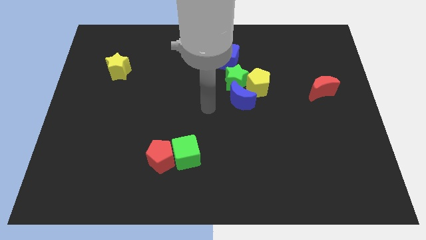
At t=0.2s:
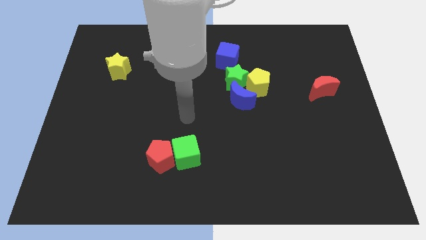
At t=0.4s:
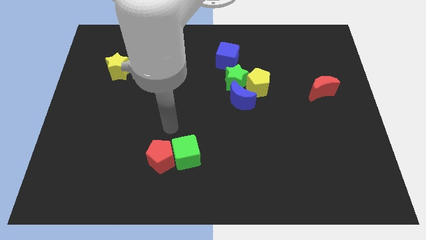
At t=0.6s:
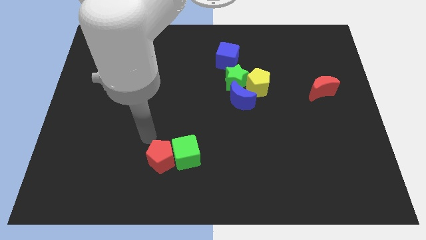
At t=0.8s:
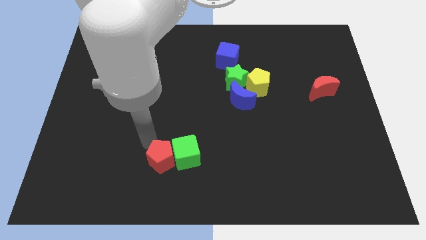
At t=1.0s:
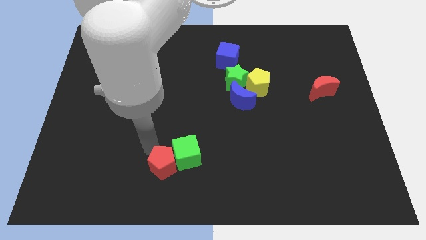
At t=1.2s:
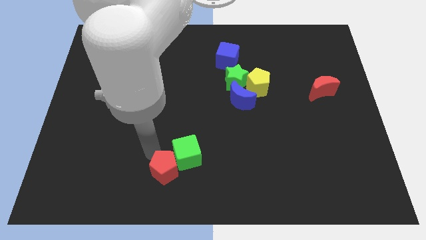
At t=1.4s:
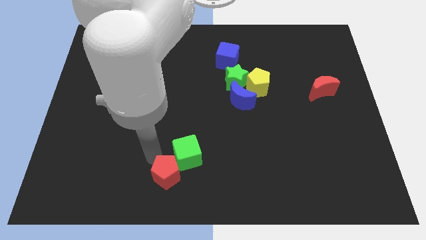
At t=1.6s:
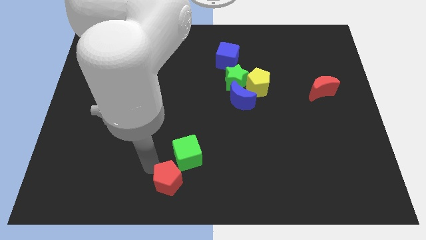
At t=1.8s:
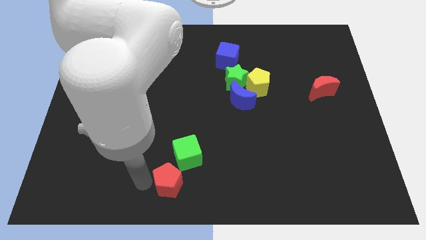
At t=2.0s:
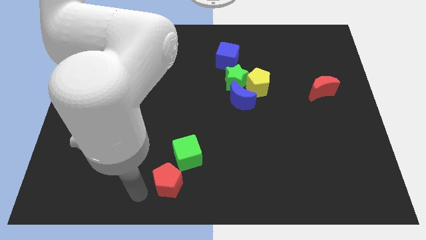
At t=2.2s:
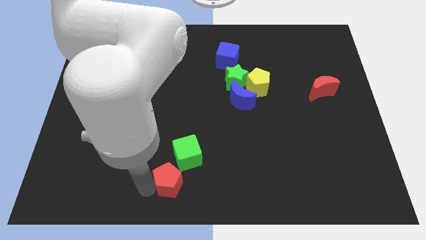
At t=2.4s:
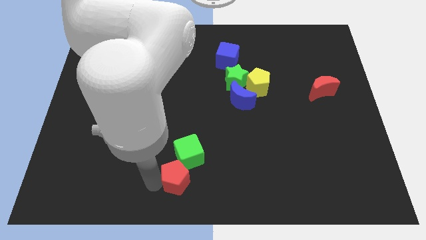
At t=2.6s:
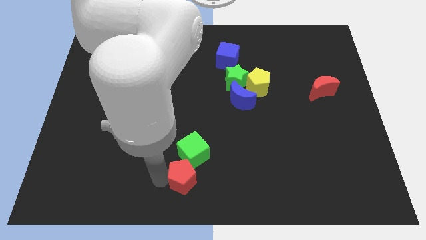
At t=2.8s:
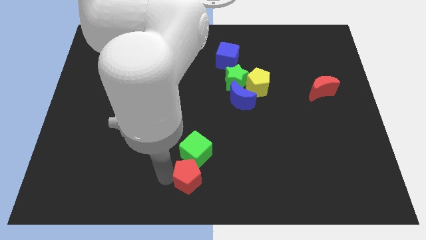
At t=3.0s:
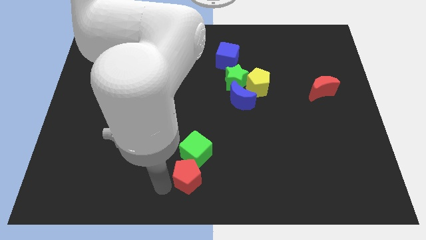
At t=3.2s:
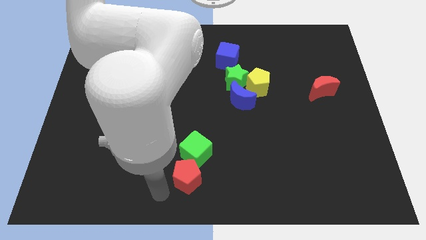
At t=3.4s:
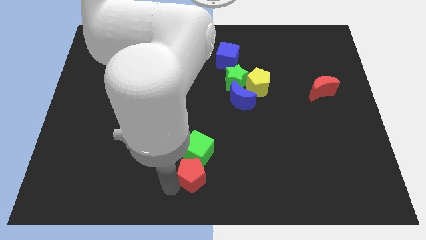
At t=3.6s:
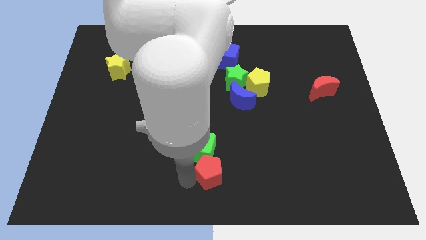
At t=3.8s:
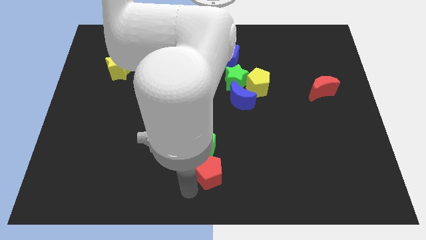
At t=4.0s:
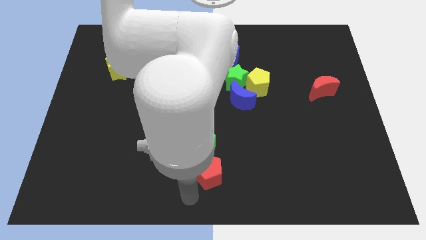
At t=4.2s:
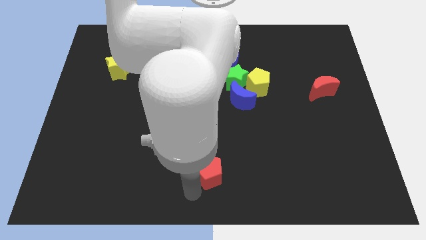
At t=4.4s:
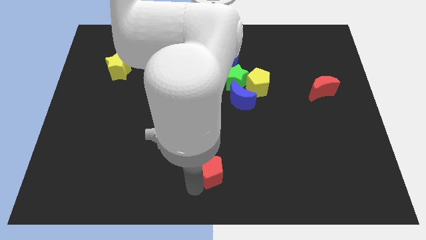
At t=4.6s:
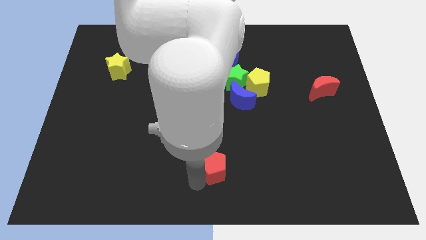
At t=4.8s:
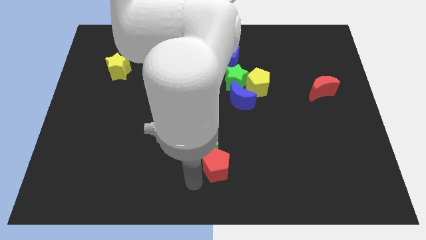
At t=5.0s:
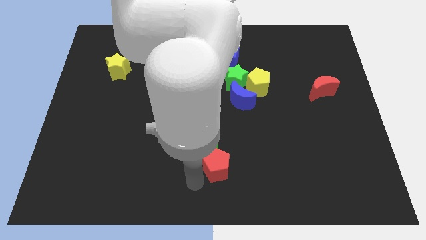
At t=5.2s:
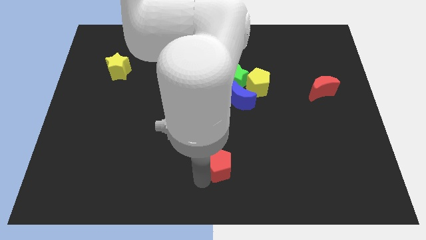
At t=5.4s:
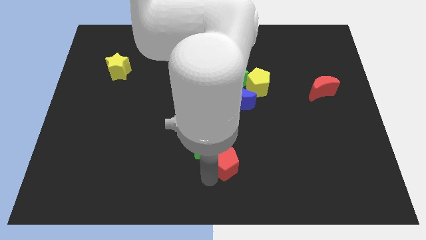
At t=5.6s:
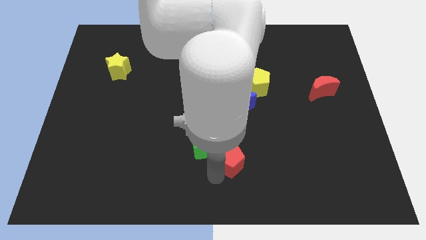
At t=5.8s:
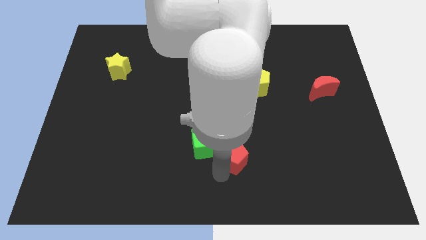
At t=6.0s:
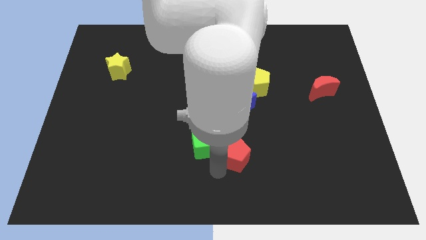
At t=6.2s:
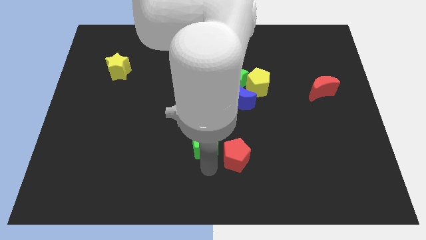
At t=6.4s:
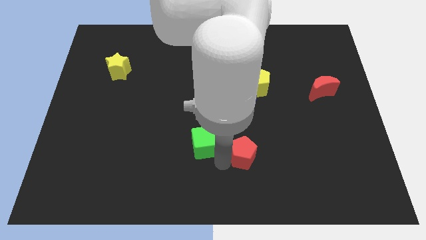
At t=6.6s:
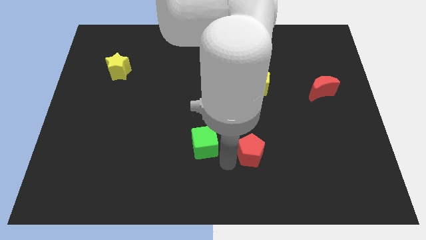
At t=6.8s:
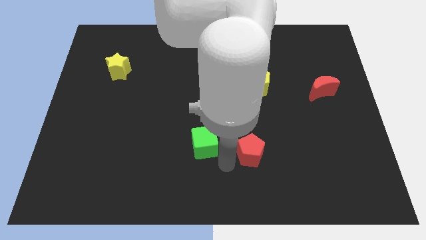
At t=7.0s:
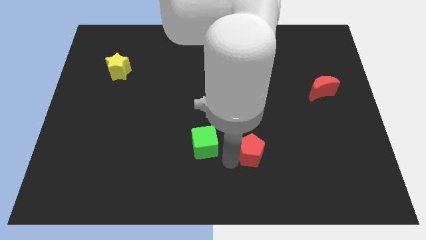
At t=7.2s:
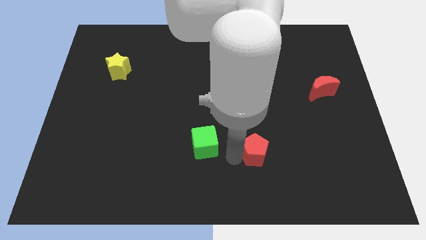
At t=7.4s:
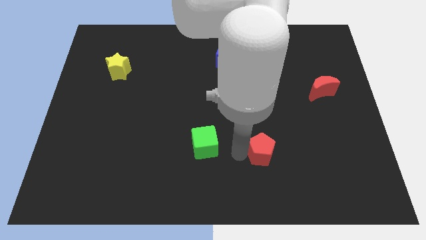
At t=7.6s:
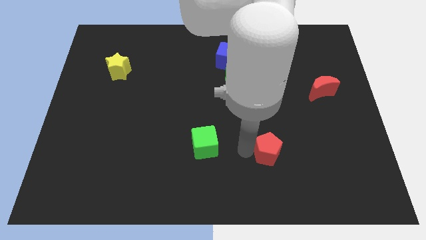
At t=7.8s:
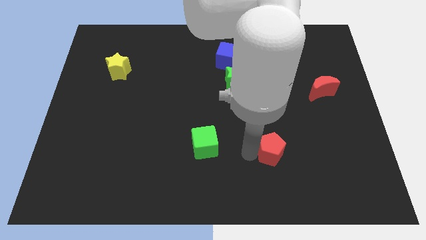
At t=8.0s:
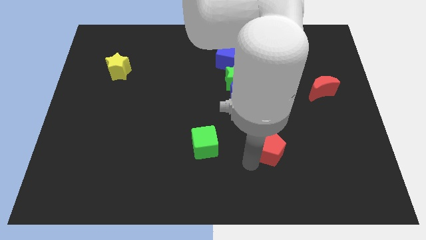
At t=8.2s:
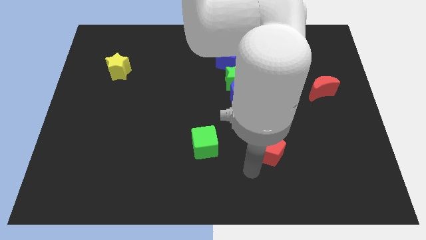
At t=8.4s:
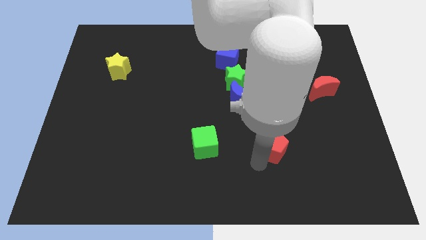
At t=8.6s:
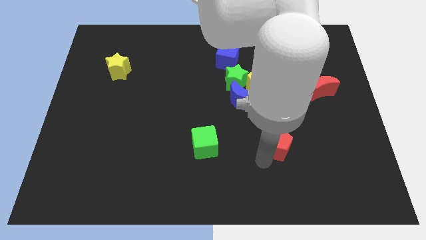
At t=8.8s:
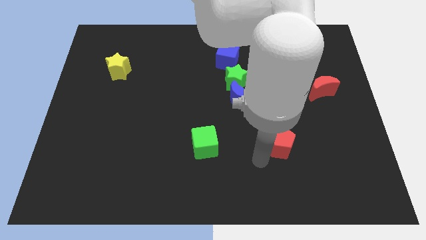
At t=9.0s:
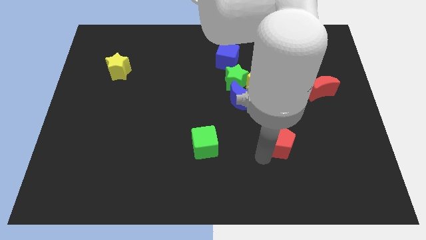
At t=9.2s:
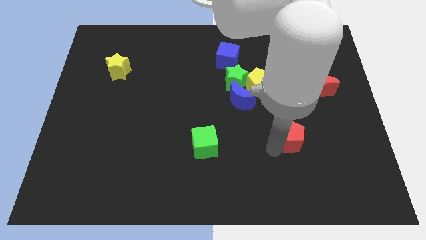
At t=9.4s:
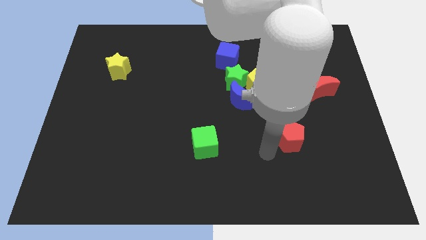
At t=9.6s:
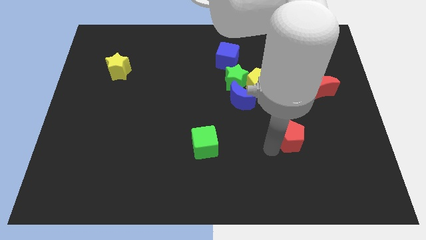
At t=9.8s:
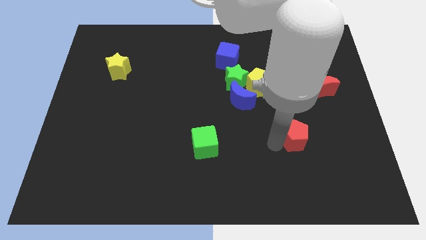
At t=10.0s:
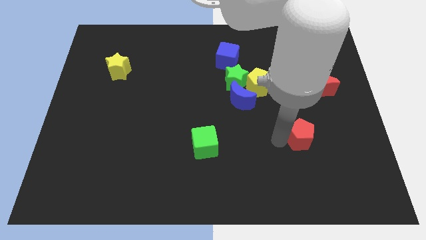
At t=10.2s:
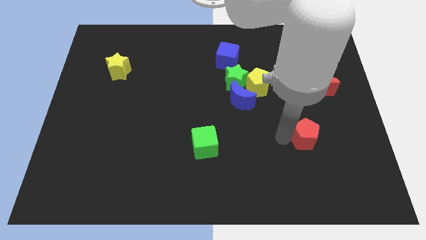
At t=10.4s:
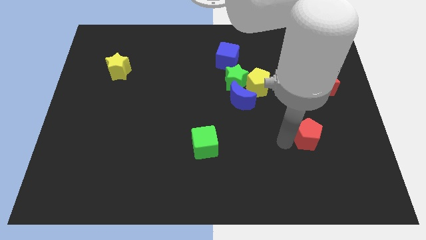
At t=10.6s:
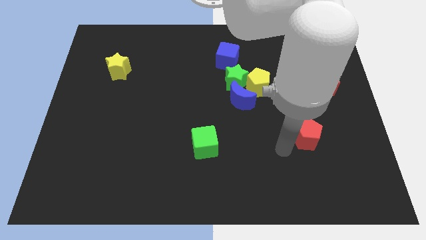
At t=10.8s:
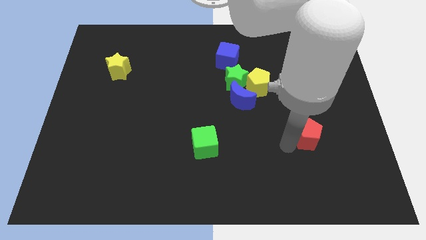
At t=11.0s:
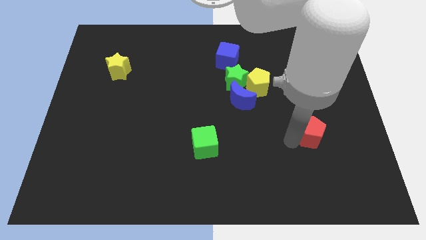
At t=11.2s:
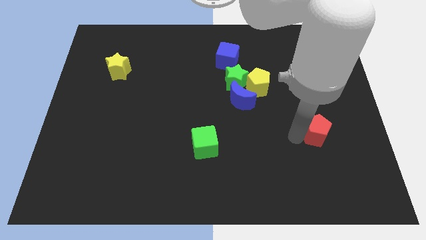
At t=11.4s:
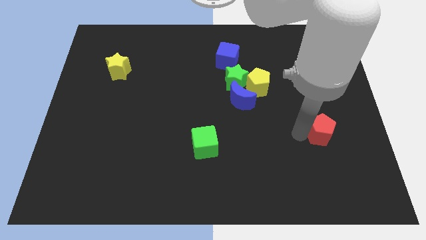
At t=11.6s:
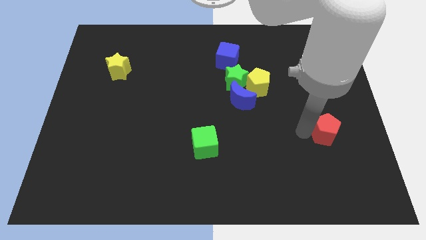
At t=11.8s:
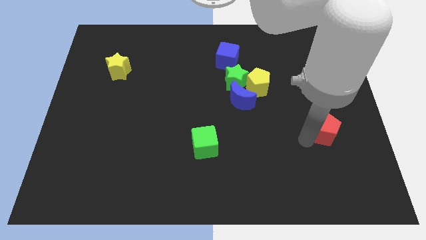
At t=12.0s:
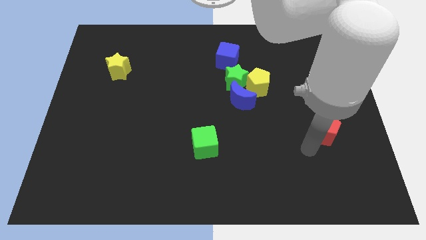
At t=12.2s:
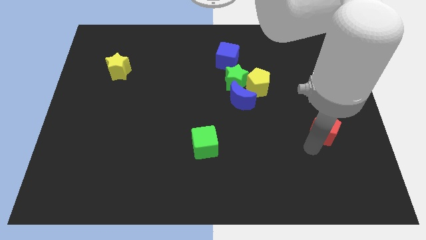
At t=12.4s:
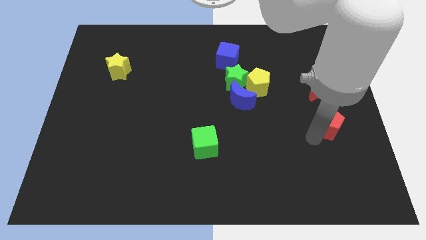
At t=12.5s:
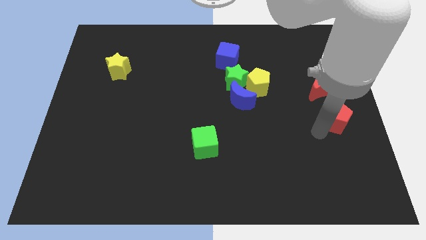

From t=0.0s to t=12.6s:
slide the red pentagon to the right side

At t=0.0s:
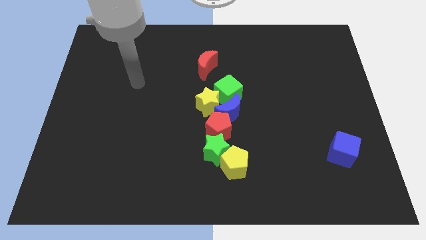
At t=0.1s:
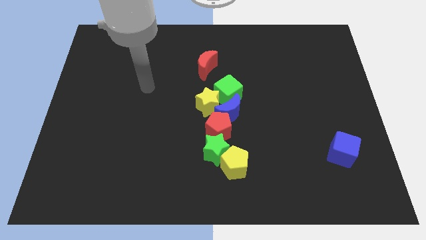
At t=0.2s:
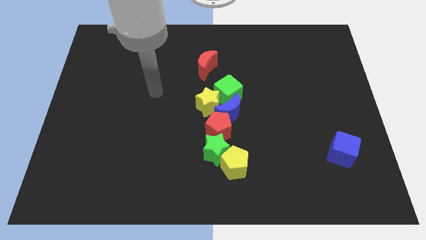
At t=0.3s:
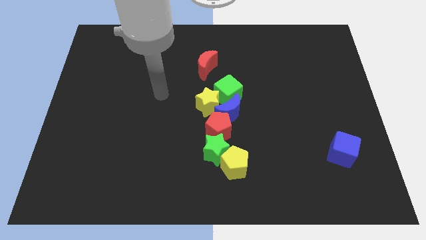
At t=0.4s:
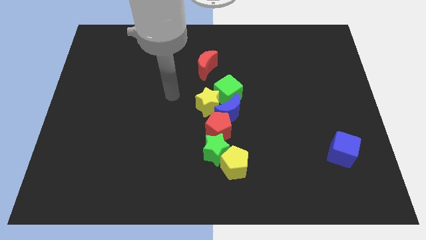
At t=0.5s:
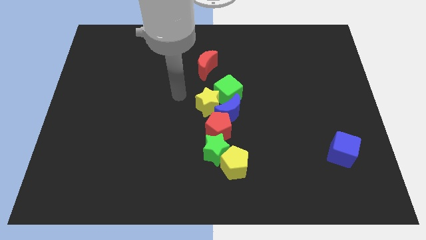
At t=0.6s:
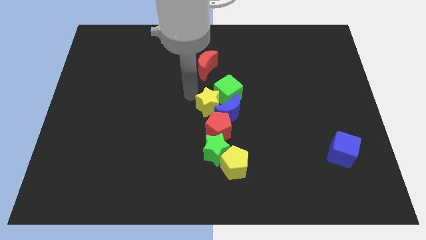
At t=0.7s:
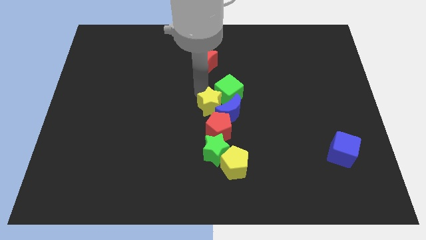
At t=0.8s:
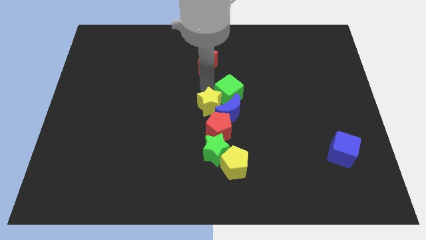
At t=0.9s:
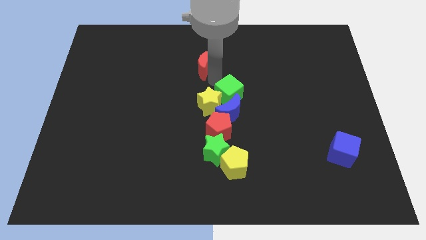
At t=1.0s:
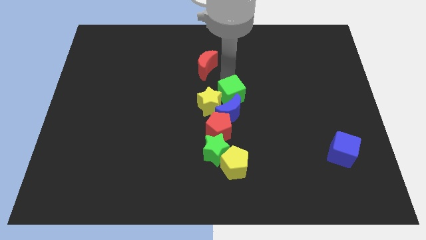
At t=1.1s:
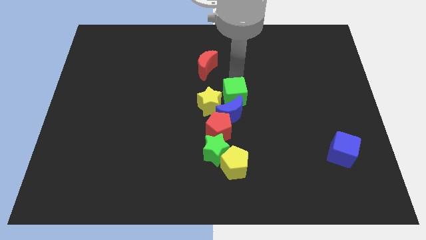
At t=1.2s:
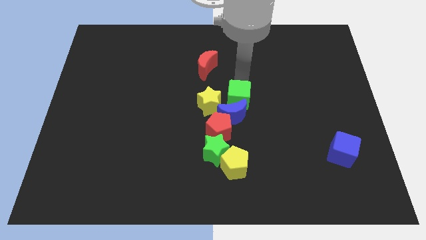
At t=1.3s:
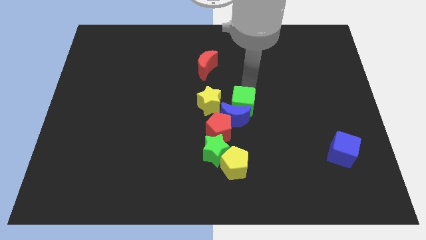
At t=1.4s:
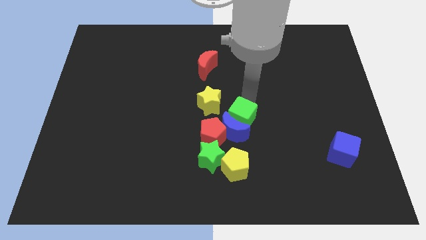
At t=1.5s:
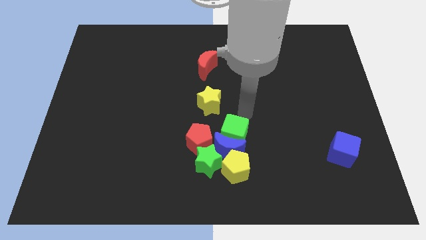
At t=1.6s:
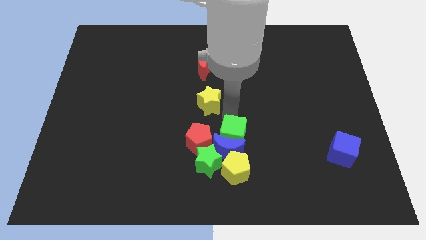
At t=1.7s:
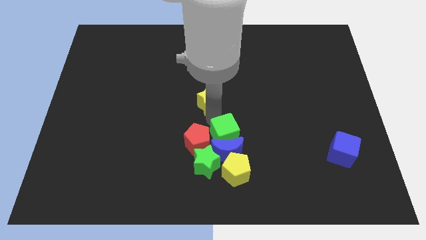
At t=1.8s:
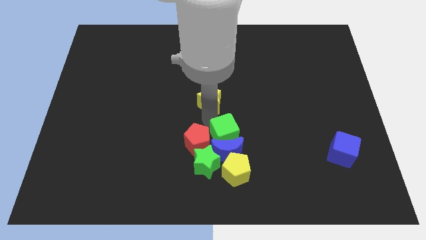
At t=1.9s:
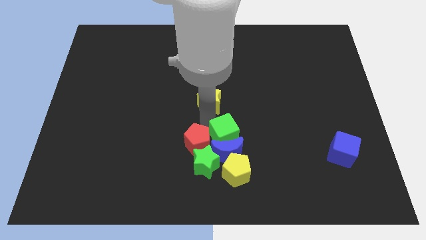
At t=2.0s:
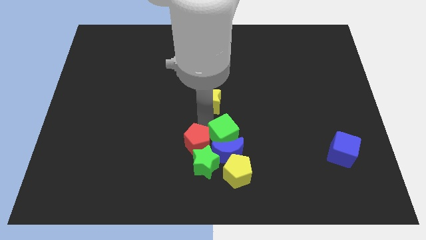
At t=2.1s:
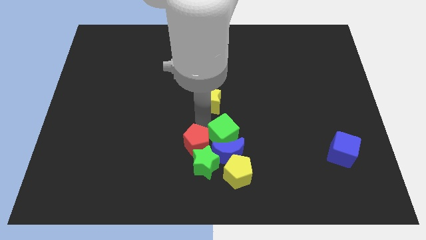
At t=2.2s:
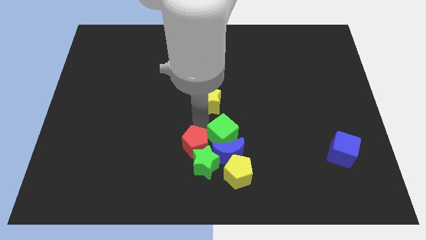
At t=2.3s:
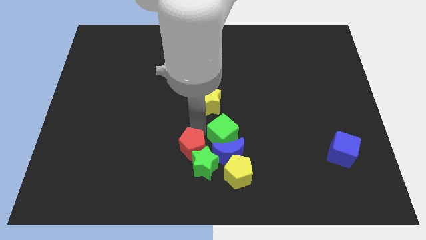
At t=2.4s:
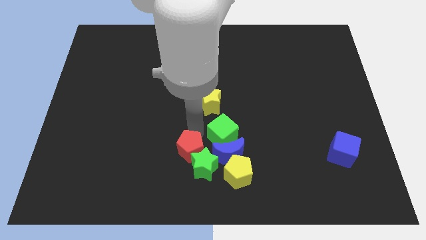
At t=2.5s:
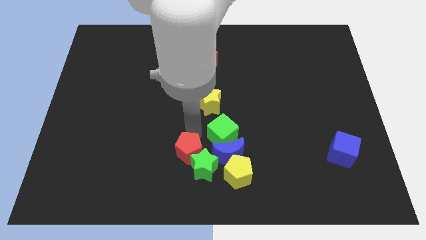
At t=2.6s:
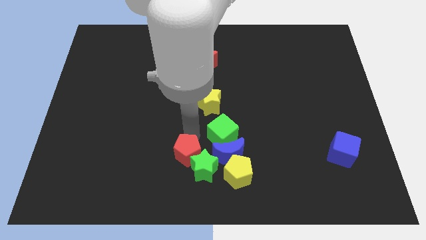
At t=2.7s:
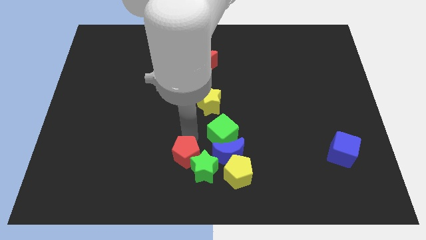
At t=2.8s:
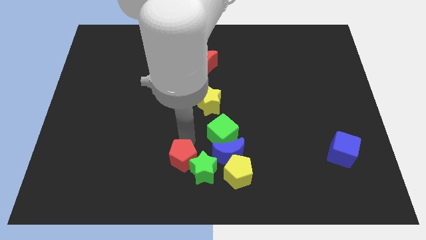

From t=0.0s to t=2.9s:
push the red pentagon to the bottom
